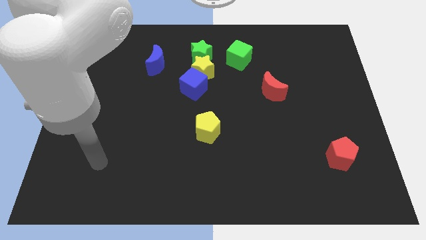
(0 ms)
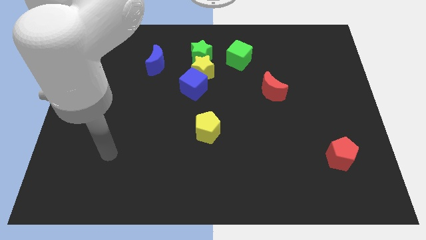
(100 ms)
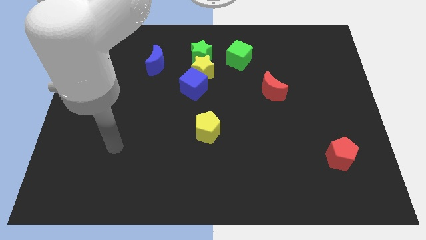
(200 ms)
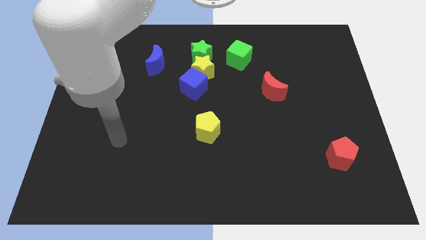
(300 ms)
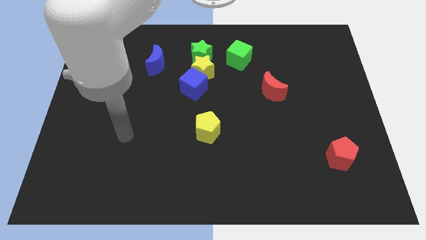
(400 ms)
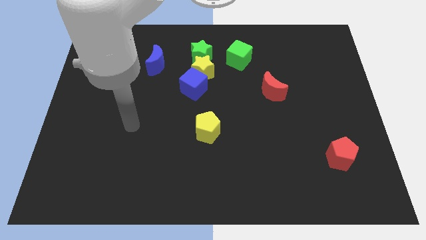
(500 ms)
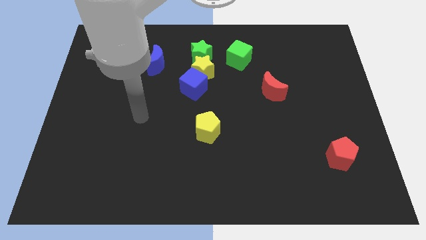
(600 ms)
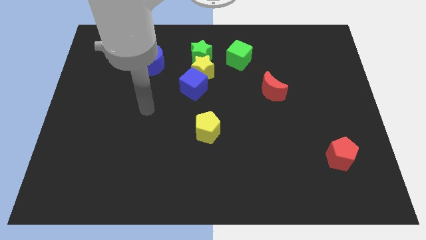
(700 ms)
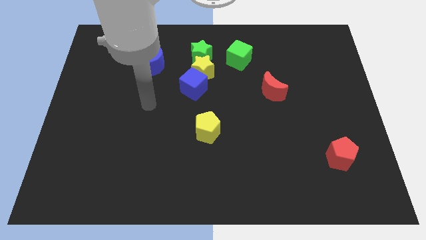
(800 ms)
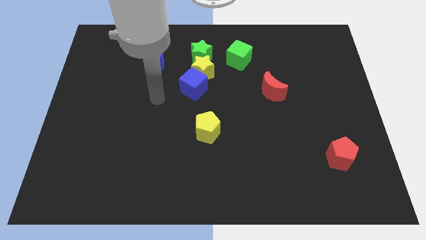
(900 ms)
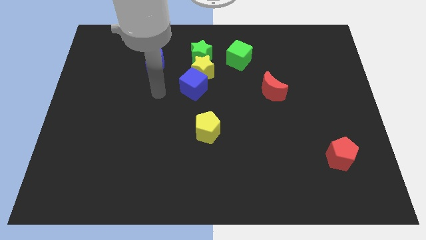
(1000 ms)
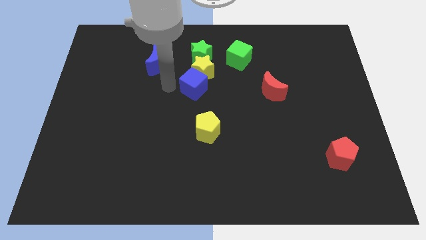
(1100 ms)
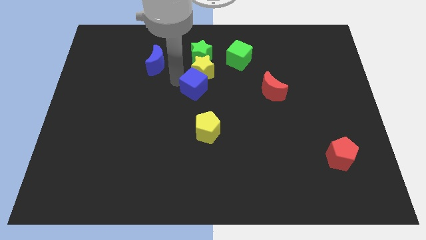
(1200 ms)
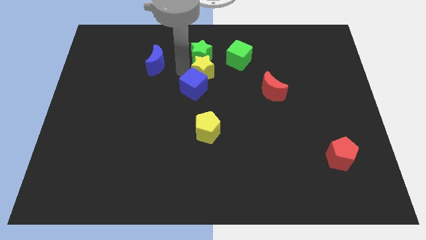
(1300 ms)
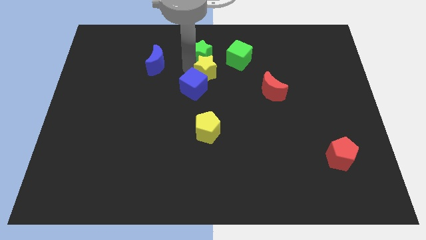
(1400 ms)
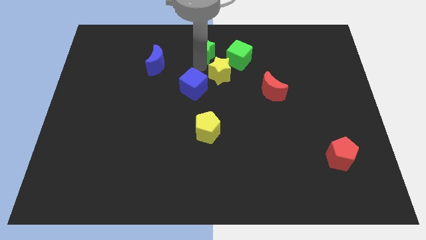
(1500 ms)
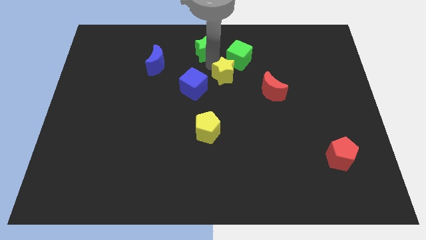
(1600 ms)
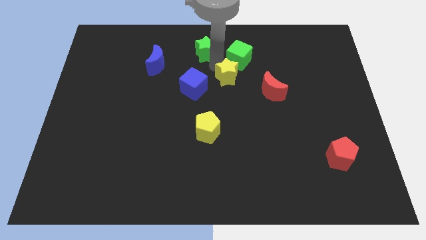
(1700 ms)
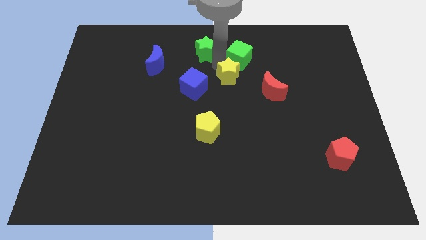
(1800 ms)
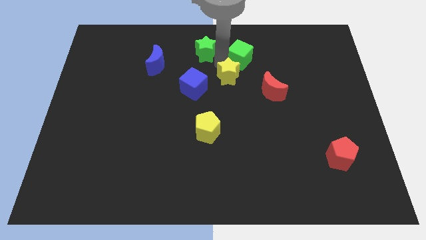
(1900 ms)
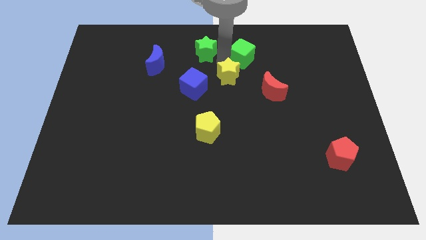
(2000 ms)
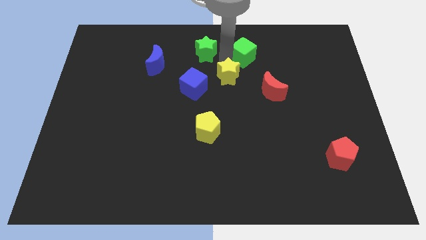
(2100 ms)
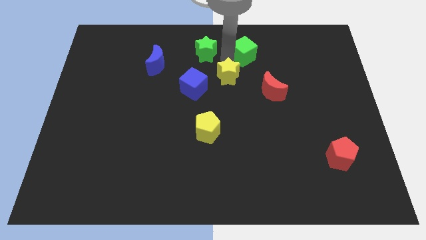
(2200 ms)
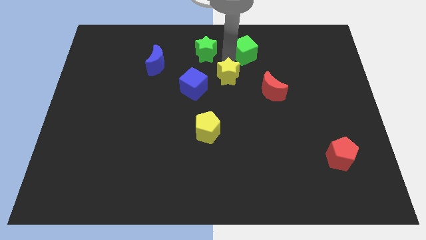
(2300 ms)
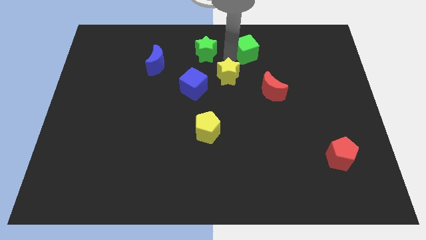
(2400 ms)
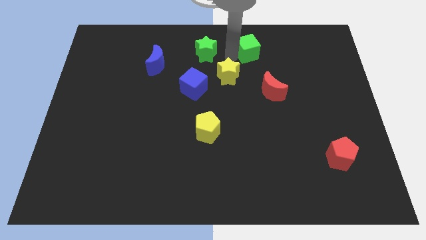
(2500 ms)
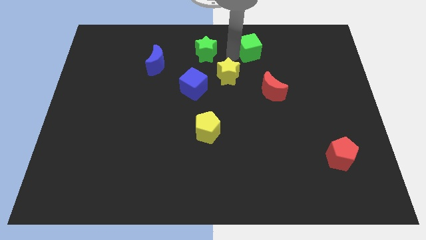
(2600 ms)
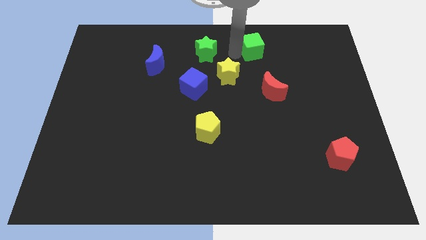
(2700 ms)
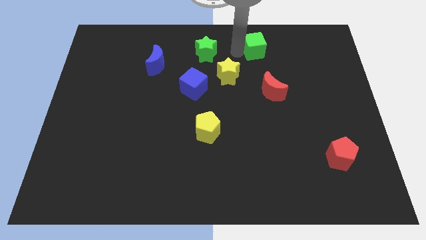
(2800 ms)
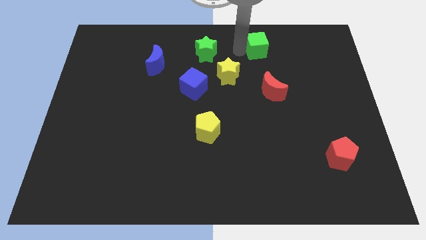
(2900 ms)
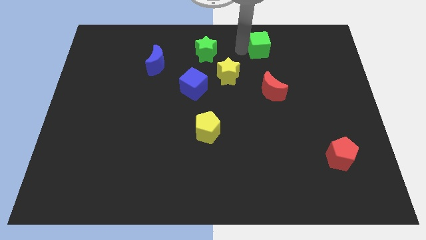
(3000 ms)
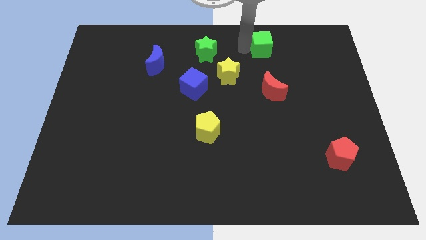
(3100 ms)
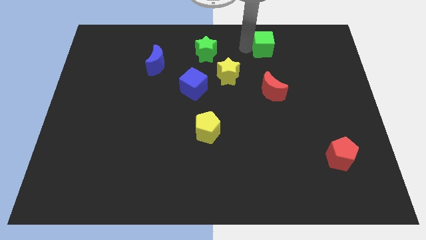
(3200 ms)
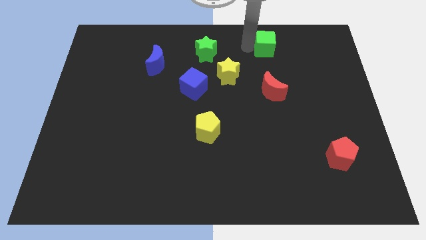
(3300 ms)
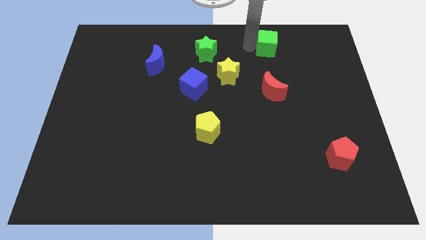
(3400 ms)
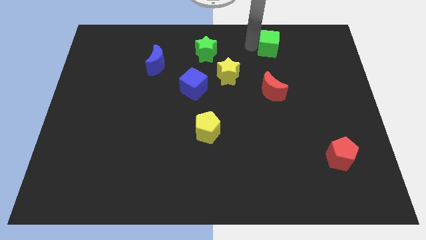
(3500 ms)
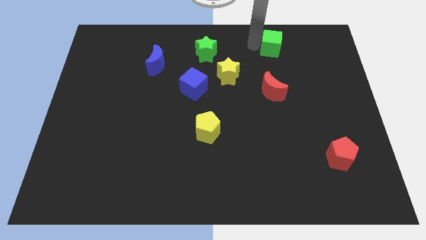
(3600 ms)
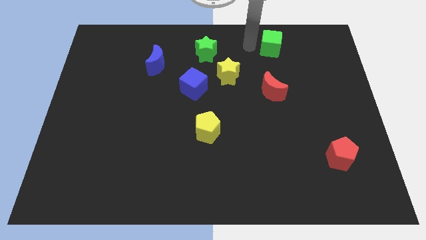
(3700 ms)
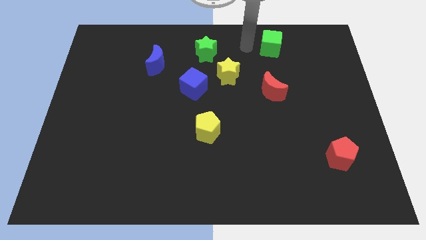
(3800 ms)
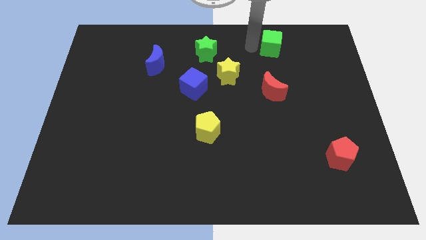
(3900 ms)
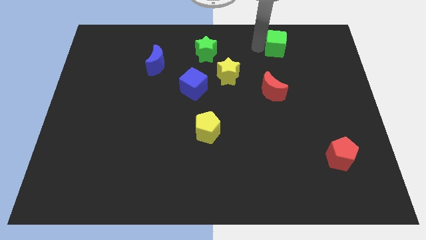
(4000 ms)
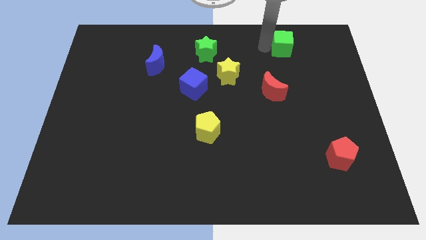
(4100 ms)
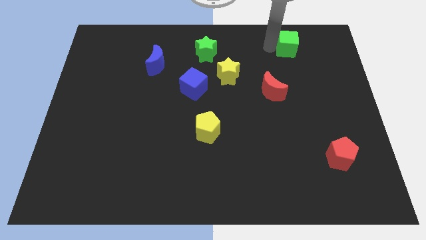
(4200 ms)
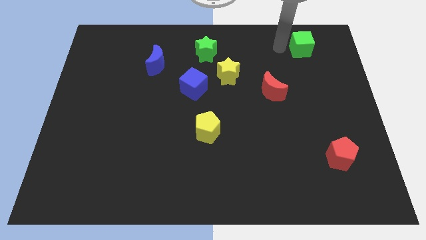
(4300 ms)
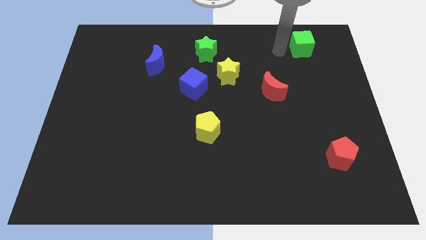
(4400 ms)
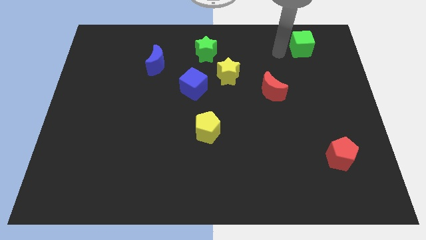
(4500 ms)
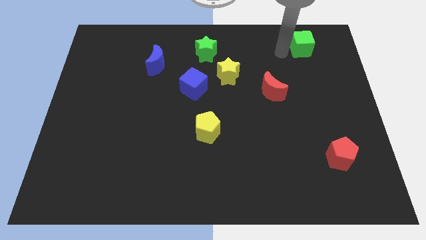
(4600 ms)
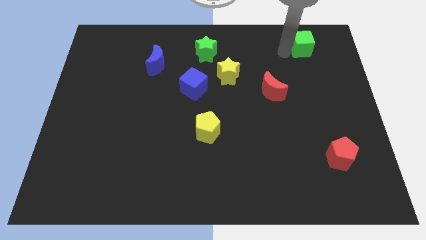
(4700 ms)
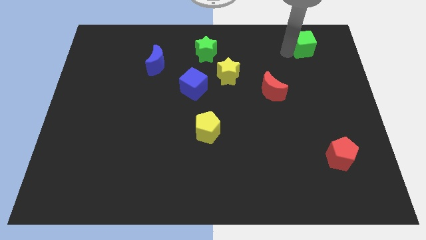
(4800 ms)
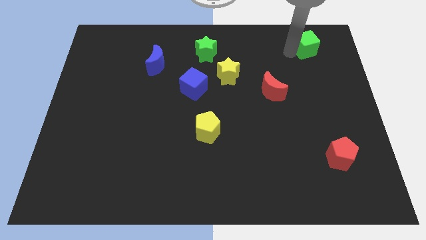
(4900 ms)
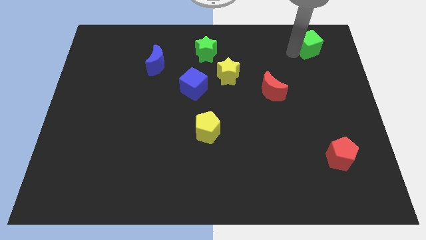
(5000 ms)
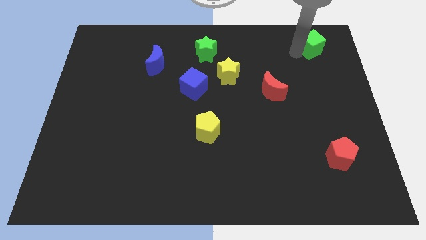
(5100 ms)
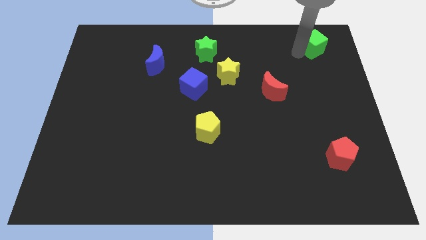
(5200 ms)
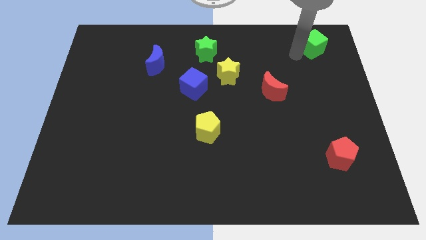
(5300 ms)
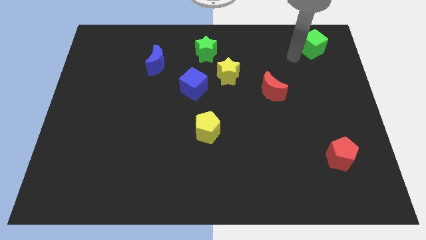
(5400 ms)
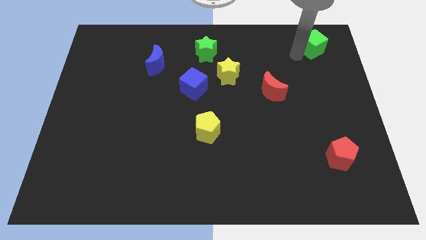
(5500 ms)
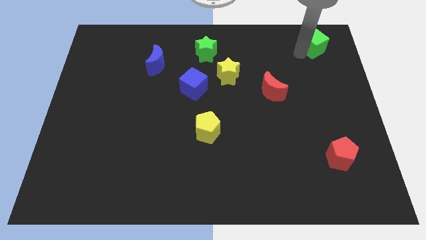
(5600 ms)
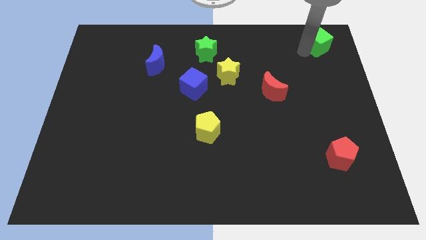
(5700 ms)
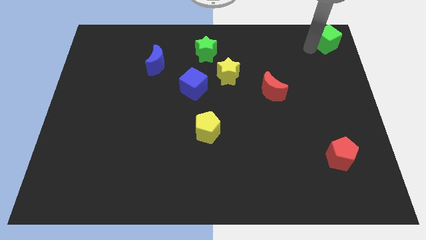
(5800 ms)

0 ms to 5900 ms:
put the green cube to the top right of the board

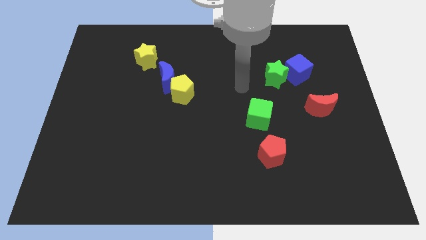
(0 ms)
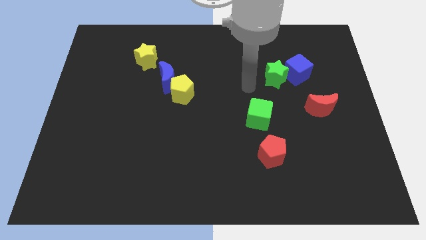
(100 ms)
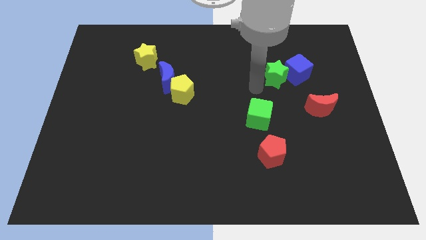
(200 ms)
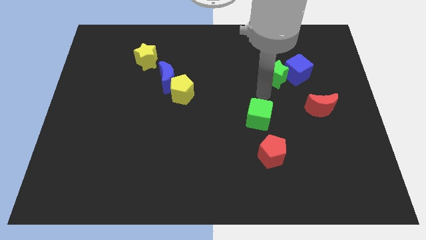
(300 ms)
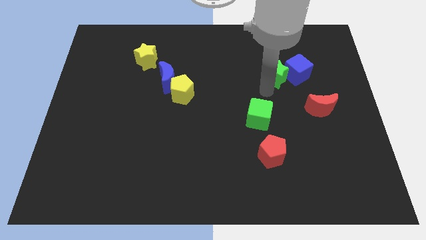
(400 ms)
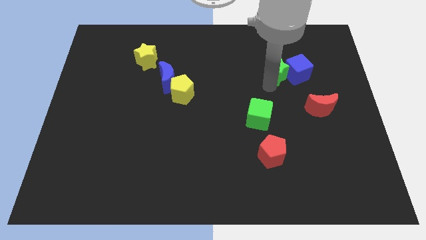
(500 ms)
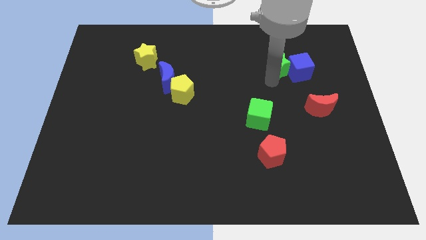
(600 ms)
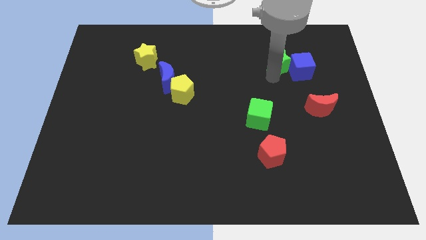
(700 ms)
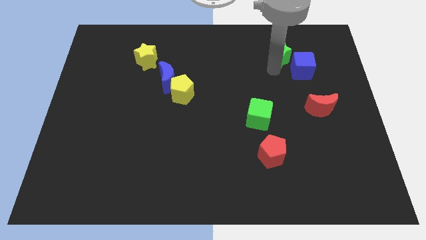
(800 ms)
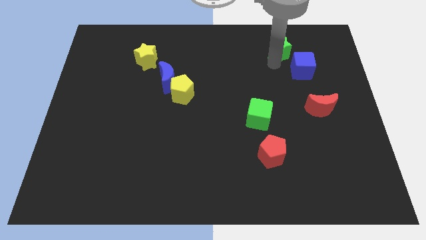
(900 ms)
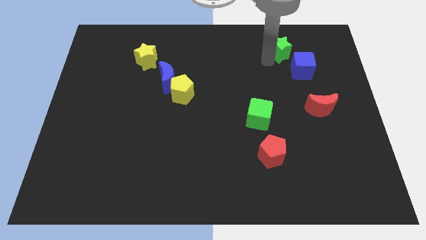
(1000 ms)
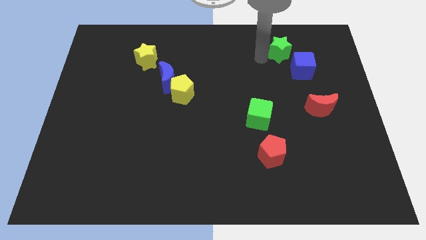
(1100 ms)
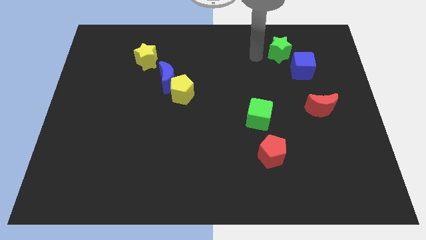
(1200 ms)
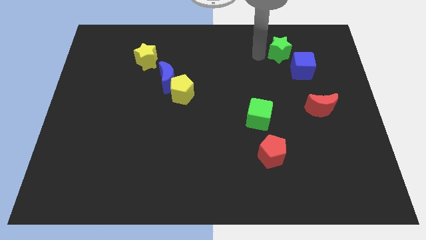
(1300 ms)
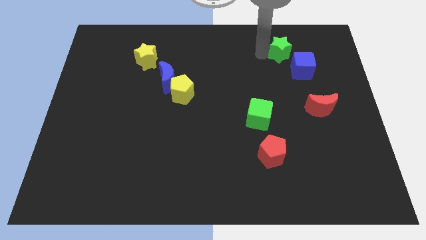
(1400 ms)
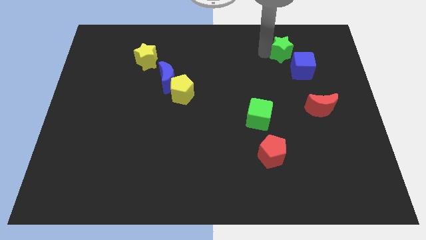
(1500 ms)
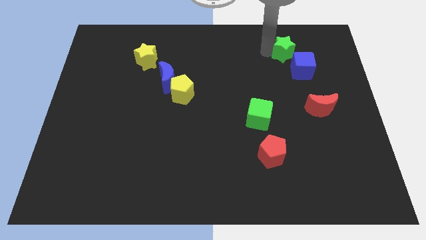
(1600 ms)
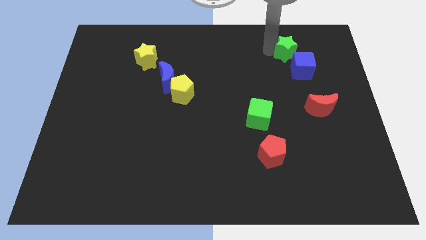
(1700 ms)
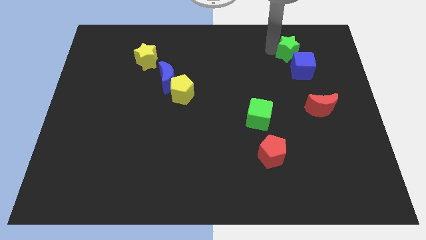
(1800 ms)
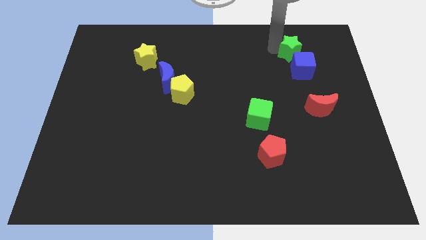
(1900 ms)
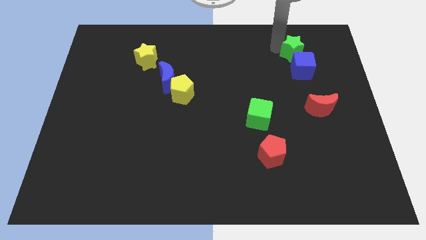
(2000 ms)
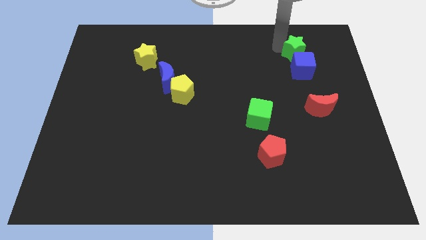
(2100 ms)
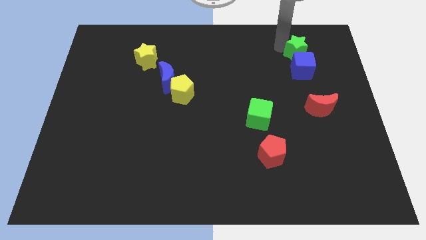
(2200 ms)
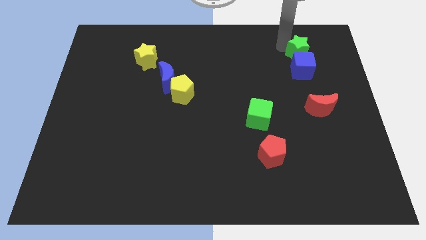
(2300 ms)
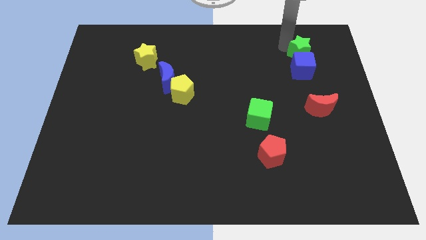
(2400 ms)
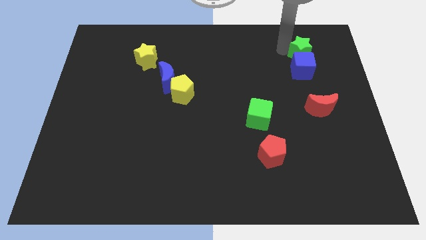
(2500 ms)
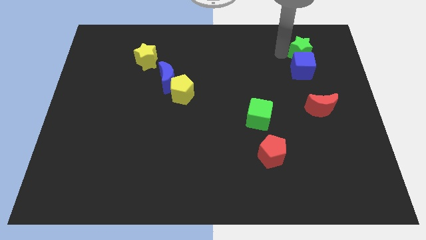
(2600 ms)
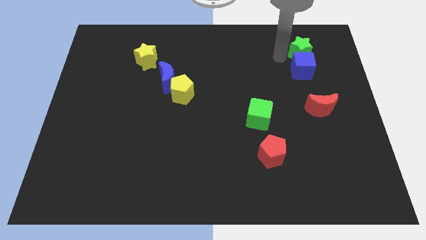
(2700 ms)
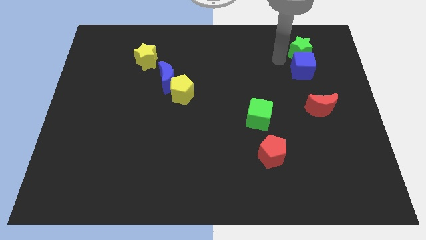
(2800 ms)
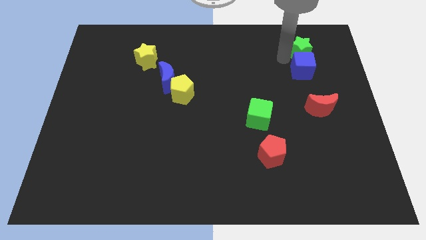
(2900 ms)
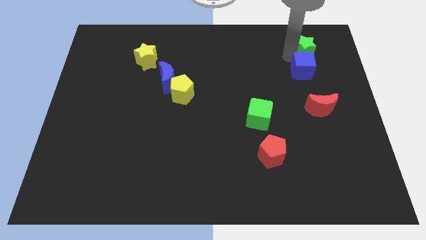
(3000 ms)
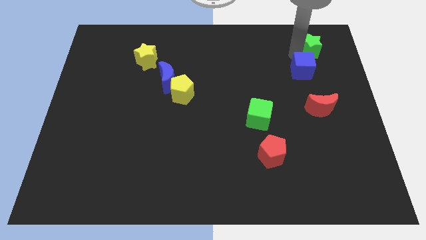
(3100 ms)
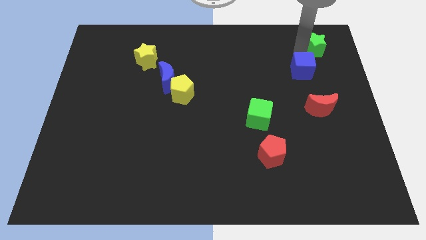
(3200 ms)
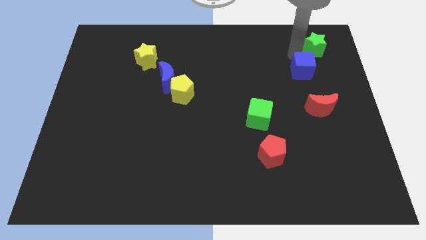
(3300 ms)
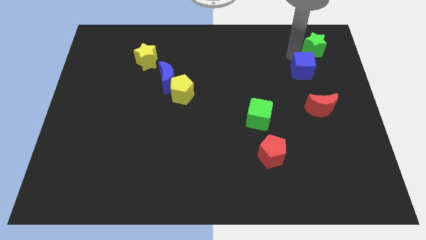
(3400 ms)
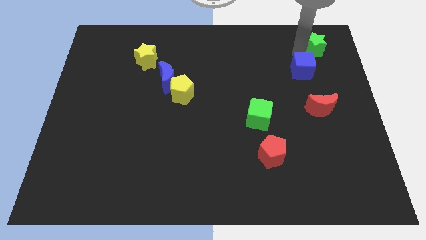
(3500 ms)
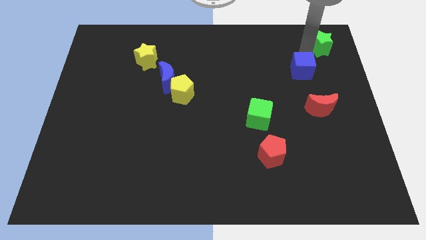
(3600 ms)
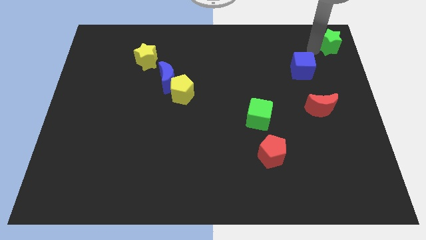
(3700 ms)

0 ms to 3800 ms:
push the green star to the top right of the board
